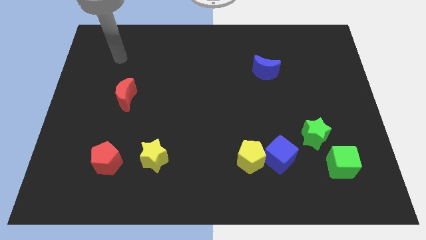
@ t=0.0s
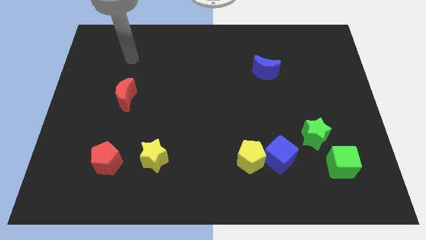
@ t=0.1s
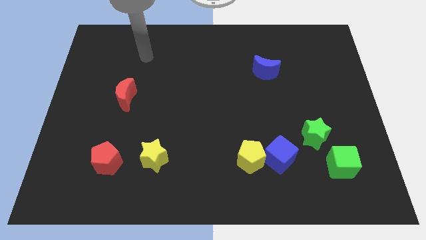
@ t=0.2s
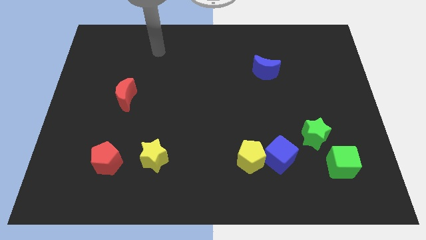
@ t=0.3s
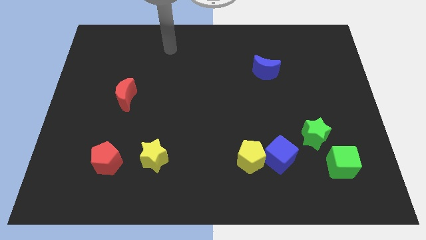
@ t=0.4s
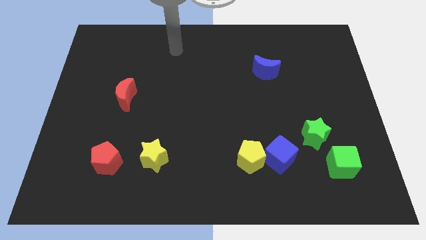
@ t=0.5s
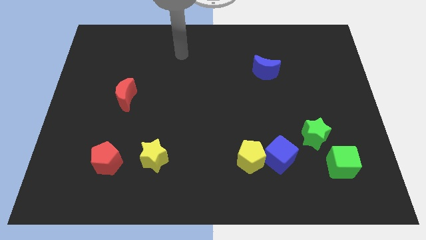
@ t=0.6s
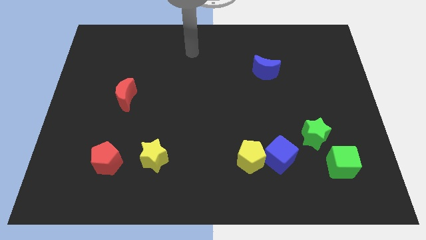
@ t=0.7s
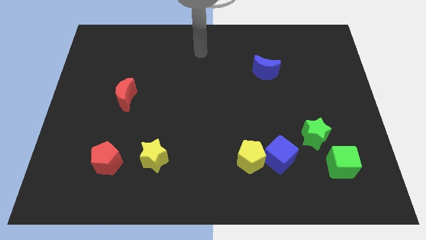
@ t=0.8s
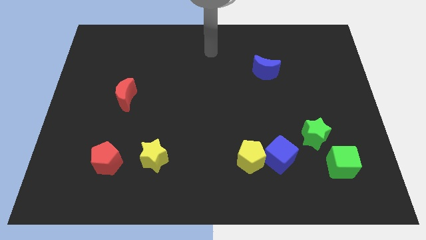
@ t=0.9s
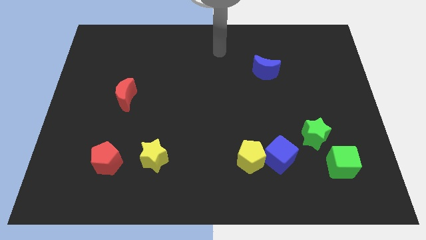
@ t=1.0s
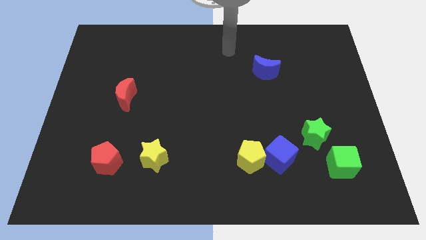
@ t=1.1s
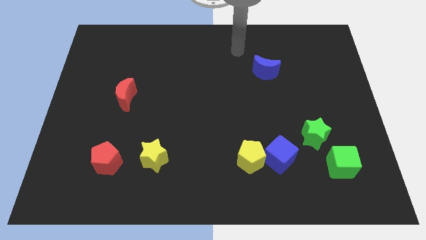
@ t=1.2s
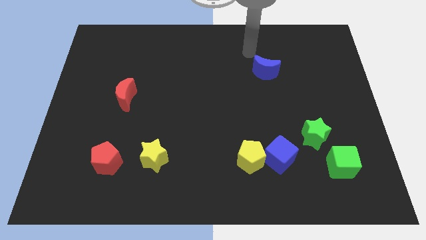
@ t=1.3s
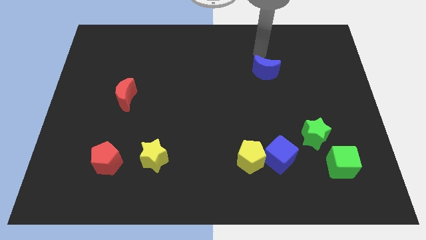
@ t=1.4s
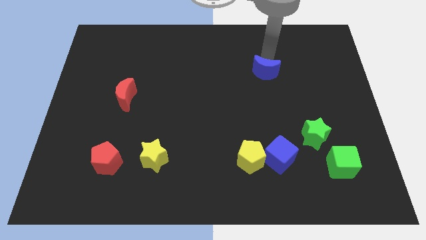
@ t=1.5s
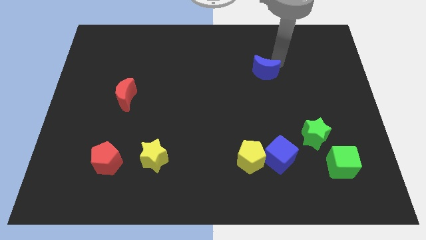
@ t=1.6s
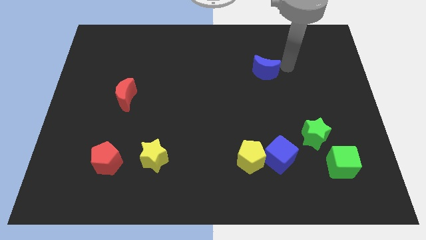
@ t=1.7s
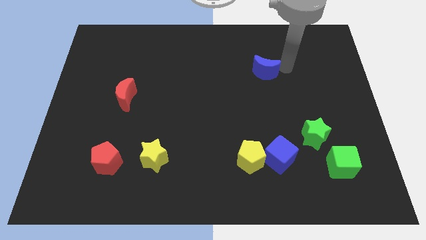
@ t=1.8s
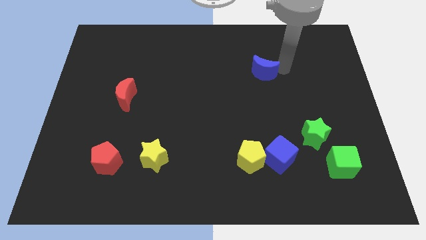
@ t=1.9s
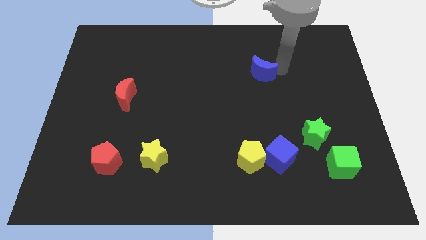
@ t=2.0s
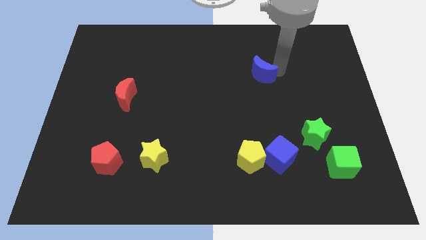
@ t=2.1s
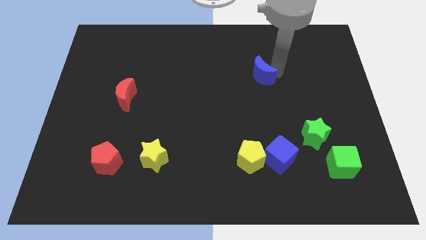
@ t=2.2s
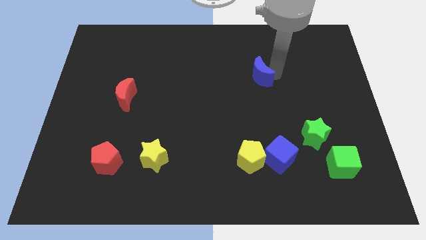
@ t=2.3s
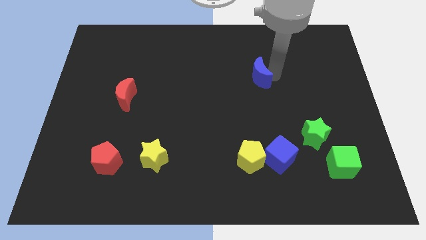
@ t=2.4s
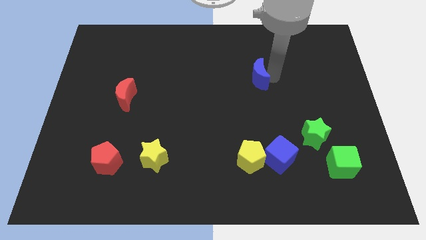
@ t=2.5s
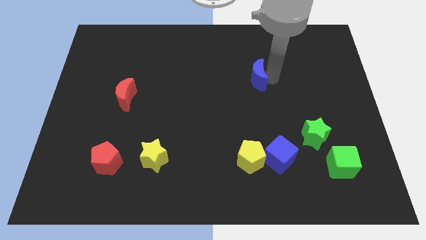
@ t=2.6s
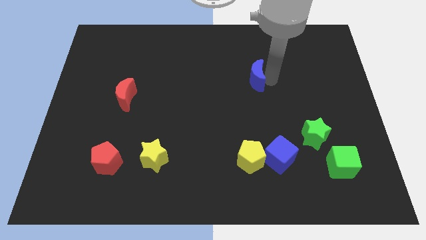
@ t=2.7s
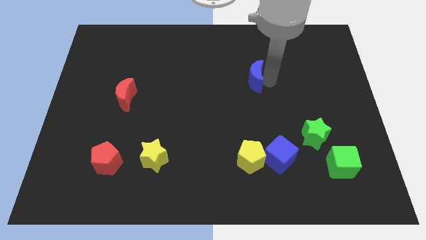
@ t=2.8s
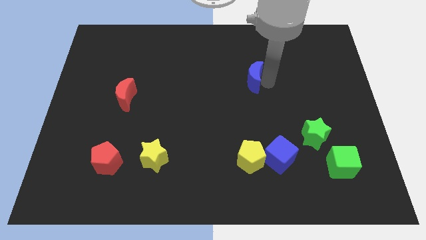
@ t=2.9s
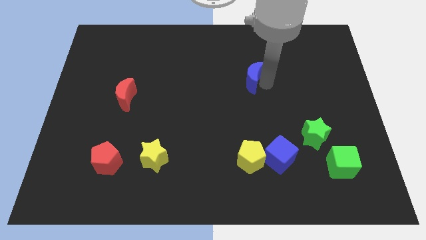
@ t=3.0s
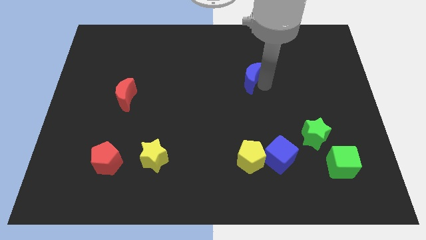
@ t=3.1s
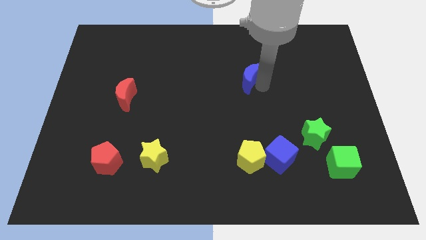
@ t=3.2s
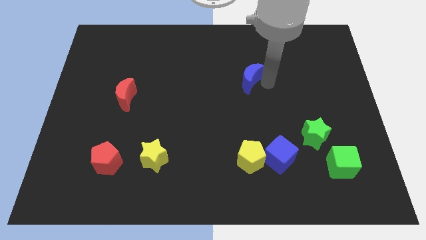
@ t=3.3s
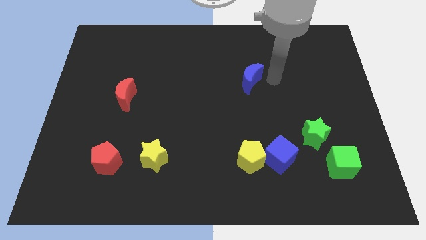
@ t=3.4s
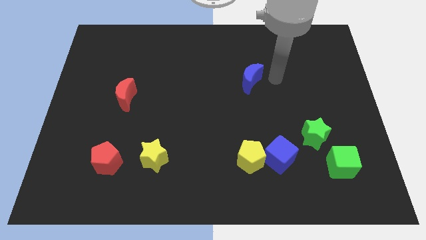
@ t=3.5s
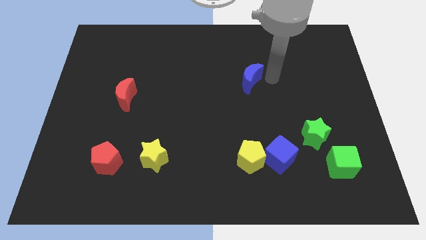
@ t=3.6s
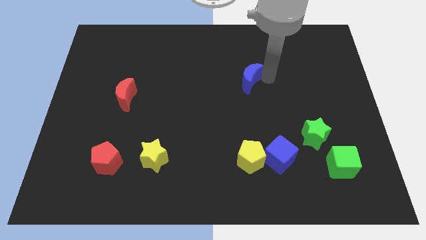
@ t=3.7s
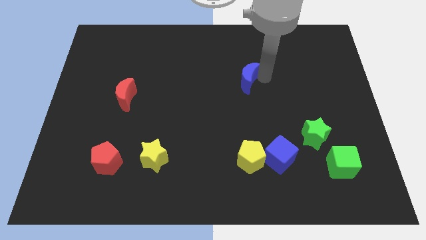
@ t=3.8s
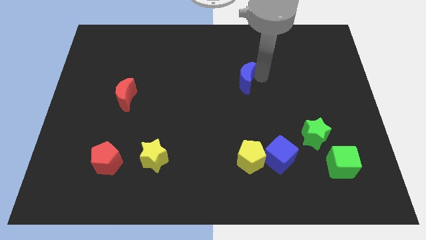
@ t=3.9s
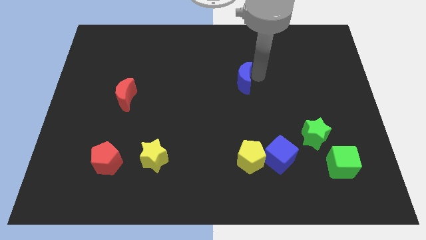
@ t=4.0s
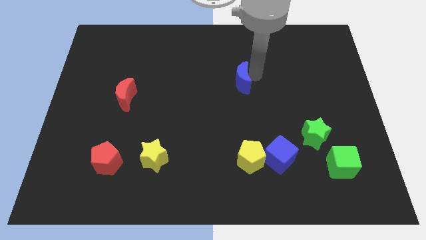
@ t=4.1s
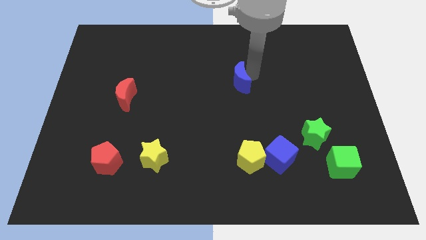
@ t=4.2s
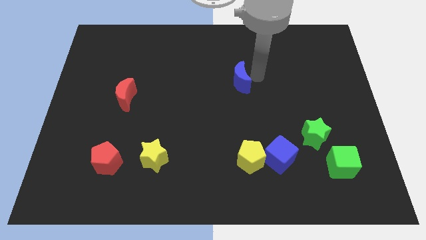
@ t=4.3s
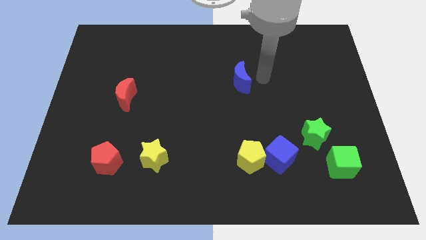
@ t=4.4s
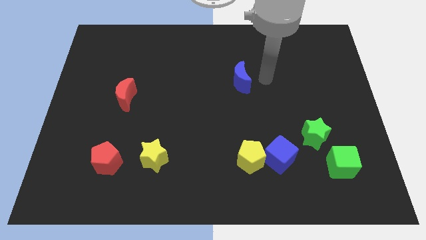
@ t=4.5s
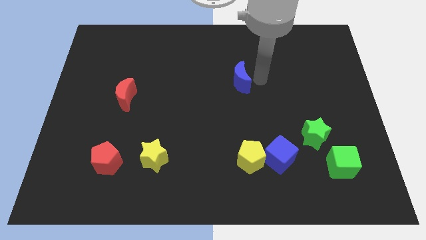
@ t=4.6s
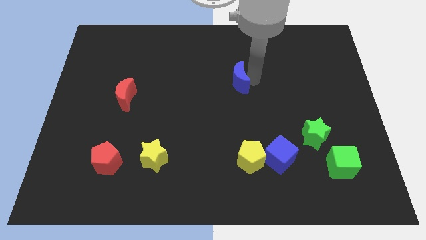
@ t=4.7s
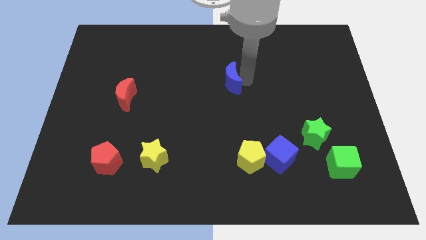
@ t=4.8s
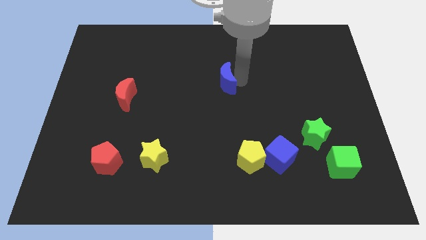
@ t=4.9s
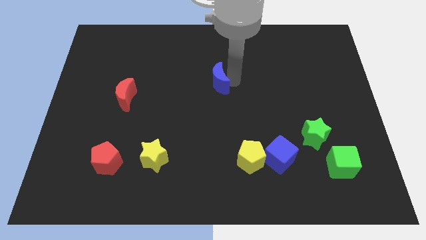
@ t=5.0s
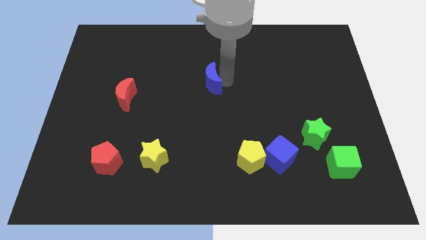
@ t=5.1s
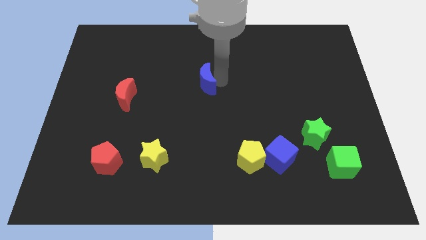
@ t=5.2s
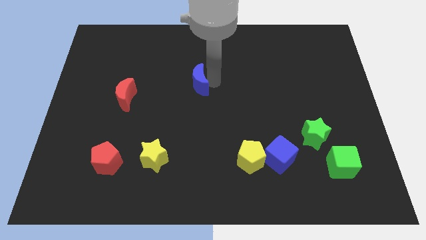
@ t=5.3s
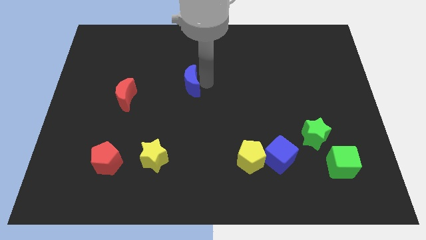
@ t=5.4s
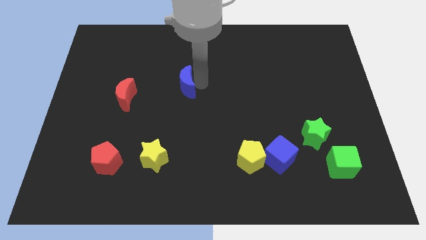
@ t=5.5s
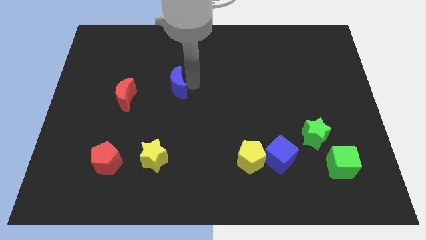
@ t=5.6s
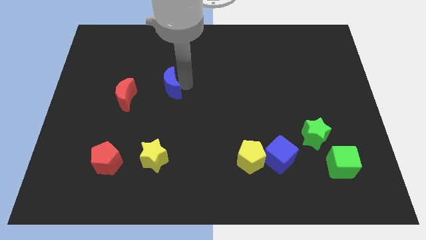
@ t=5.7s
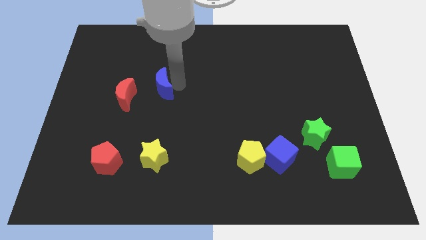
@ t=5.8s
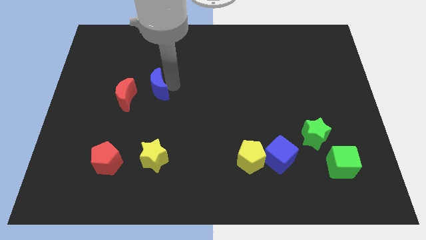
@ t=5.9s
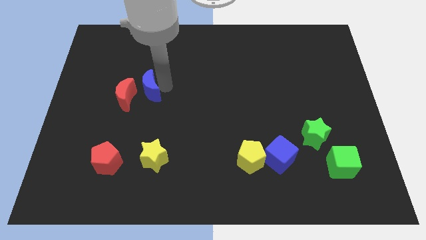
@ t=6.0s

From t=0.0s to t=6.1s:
push the blue moon next to the red moon
